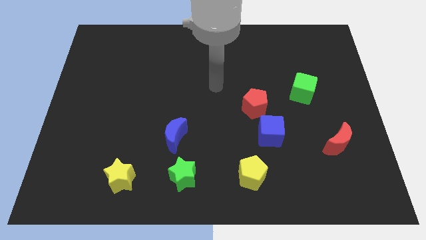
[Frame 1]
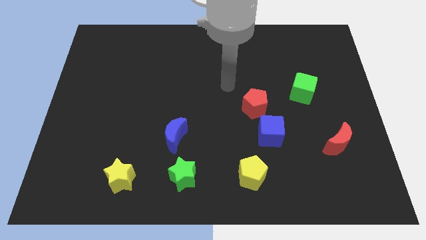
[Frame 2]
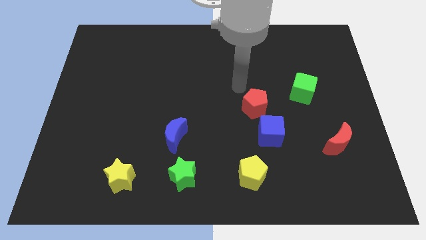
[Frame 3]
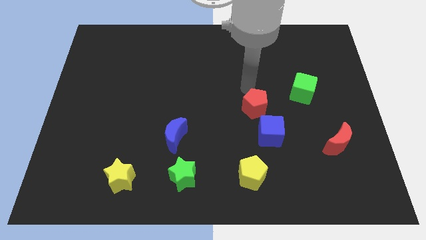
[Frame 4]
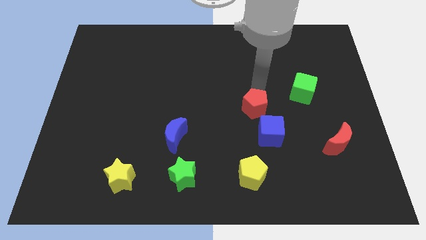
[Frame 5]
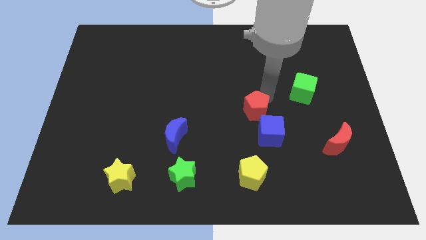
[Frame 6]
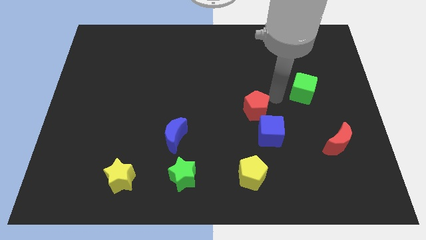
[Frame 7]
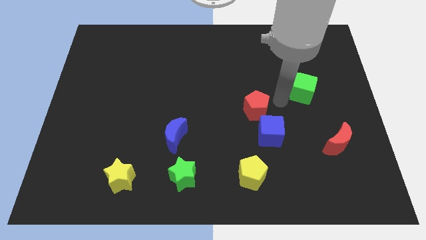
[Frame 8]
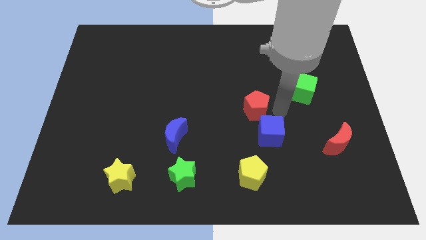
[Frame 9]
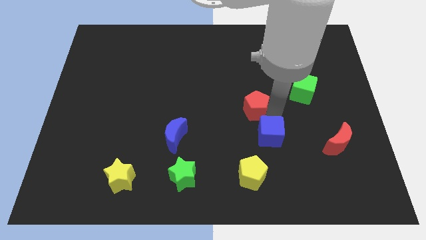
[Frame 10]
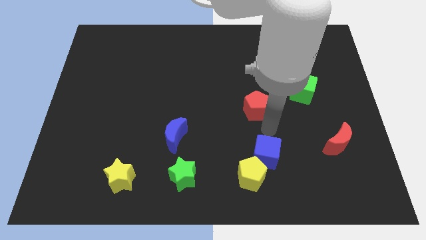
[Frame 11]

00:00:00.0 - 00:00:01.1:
move the red pentagon away from the blue cube

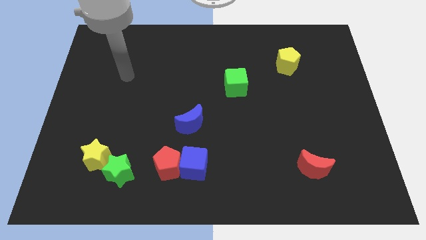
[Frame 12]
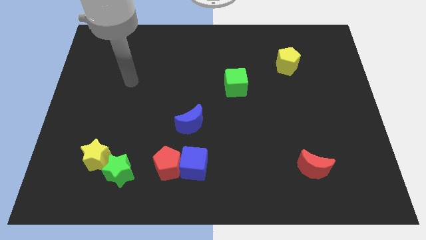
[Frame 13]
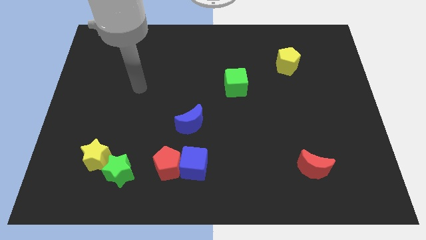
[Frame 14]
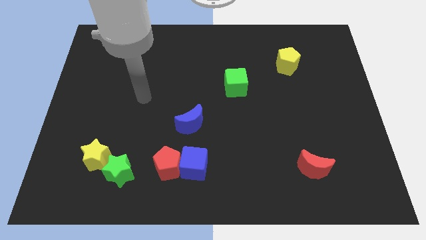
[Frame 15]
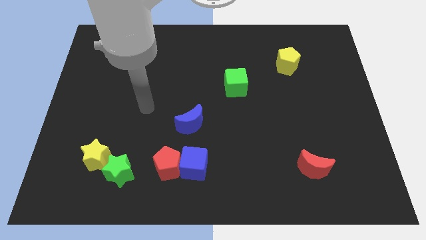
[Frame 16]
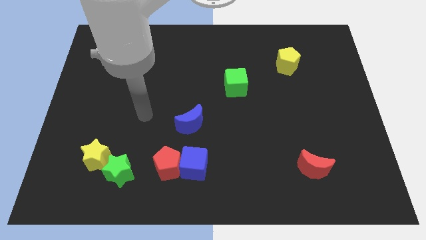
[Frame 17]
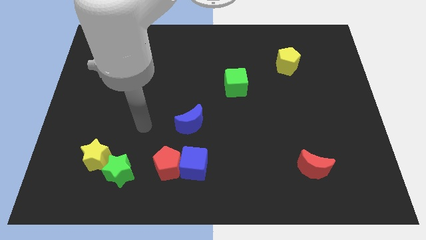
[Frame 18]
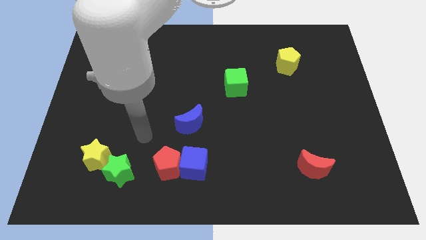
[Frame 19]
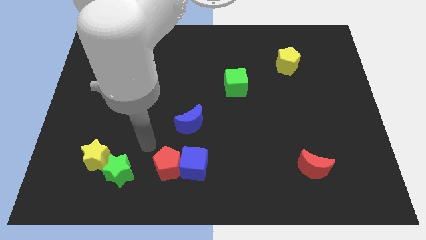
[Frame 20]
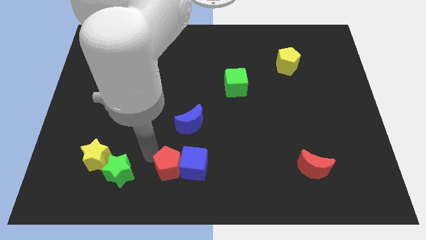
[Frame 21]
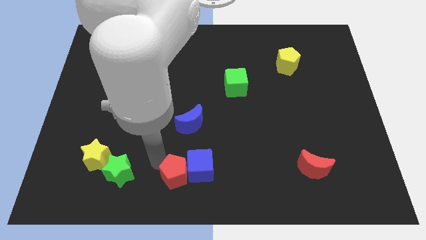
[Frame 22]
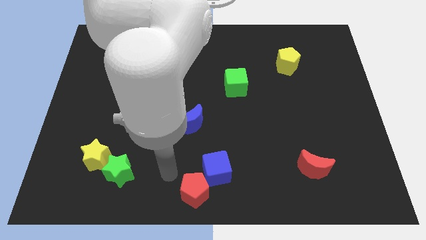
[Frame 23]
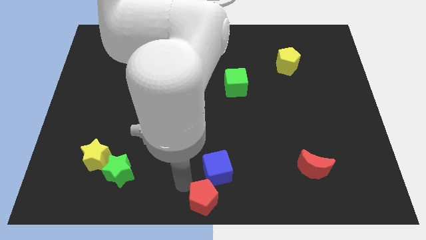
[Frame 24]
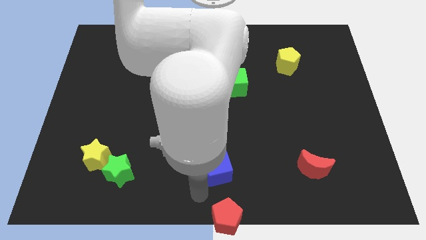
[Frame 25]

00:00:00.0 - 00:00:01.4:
pull the blue cube apart from the red pentagon

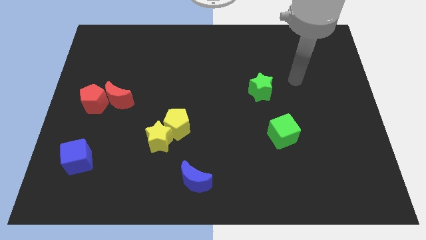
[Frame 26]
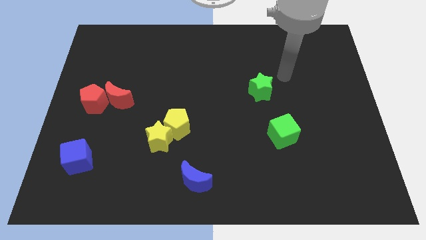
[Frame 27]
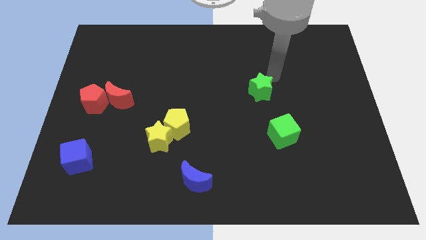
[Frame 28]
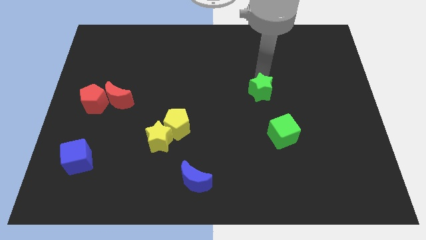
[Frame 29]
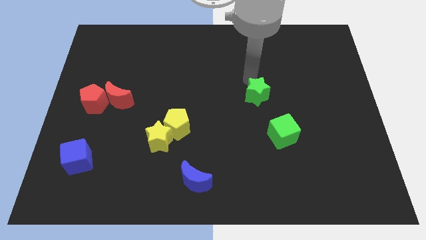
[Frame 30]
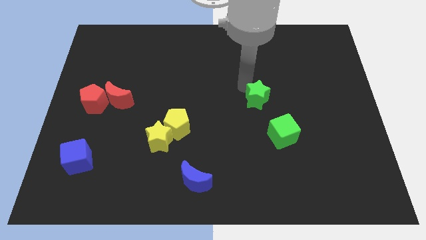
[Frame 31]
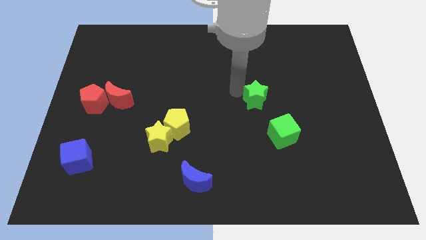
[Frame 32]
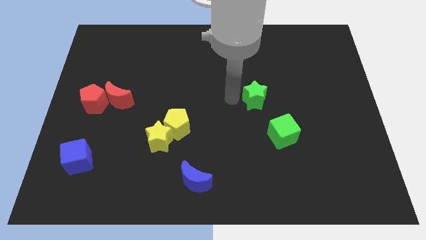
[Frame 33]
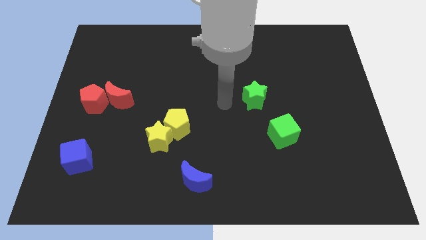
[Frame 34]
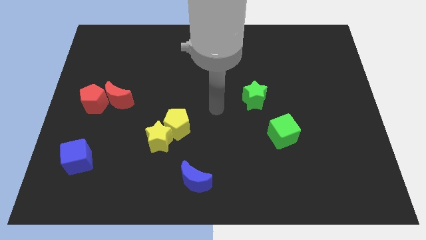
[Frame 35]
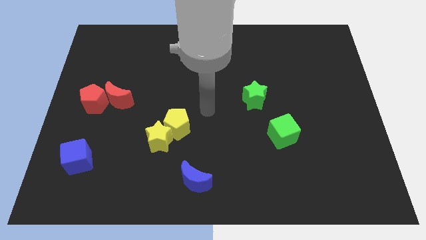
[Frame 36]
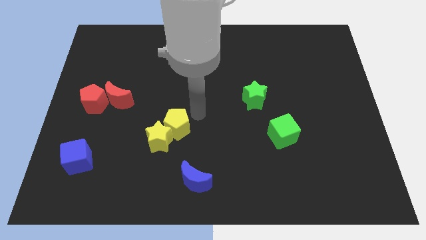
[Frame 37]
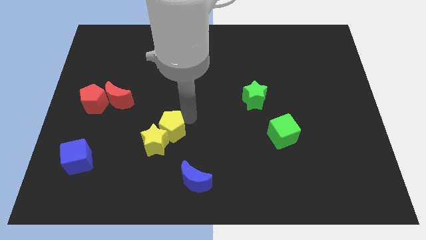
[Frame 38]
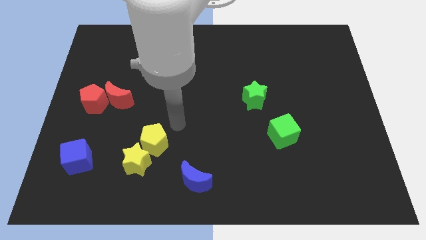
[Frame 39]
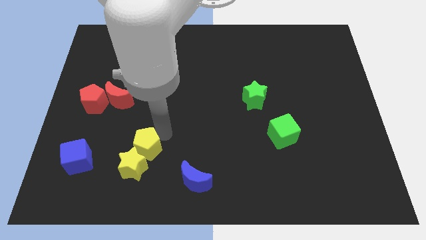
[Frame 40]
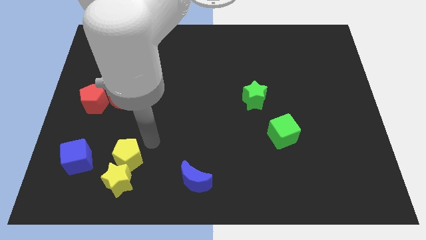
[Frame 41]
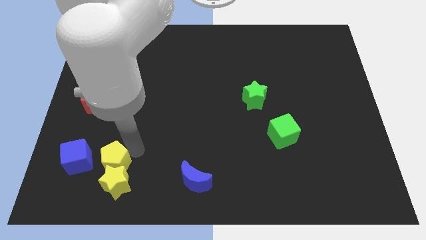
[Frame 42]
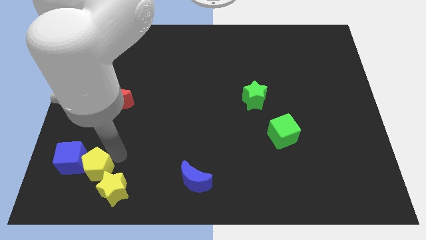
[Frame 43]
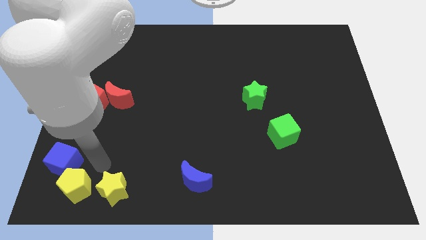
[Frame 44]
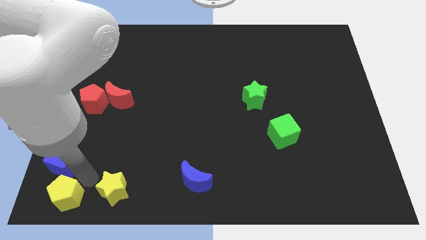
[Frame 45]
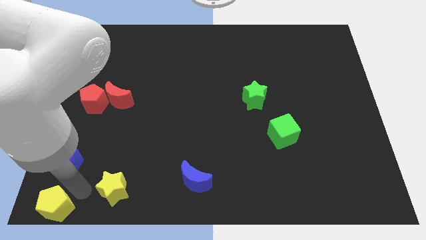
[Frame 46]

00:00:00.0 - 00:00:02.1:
separate the yellow star from the yellow pentagon

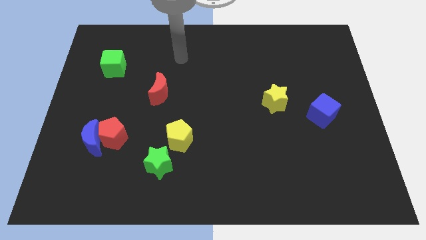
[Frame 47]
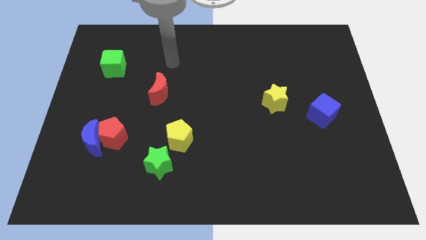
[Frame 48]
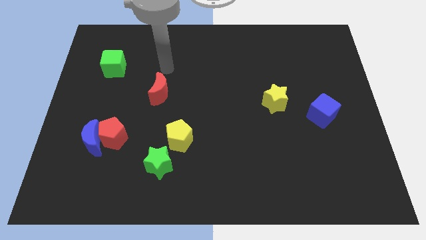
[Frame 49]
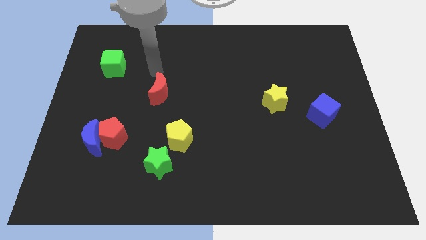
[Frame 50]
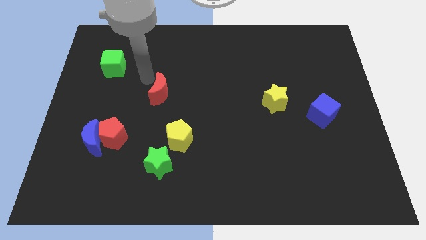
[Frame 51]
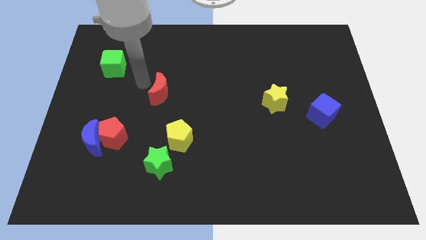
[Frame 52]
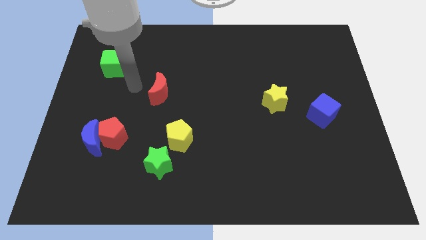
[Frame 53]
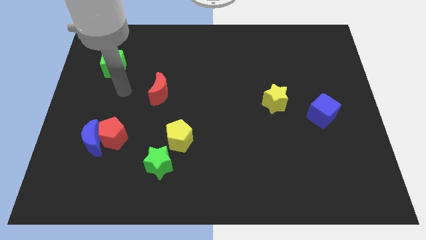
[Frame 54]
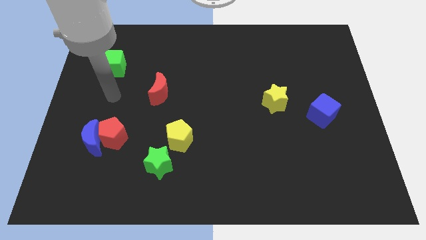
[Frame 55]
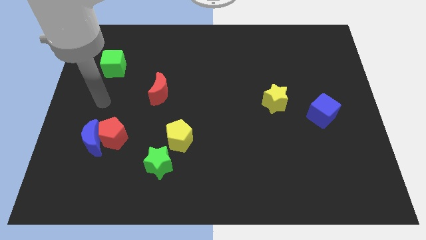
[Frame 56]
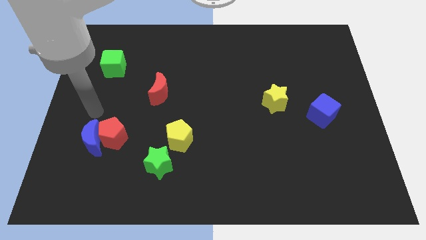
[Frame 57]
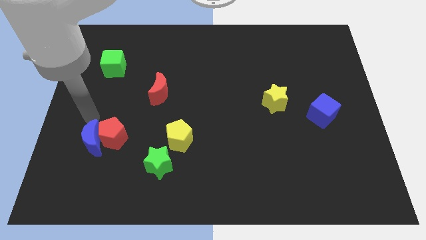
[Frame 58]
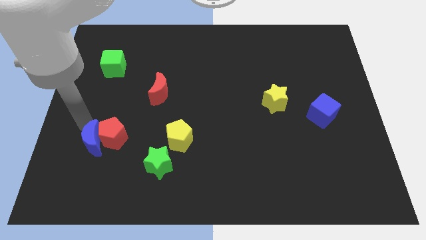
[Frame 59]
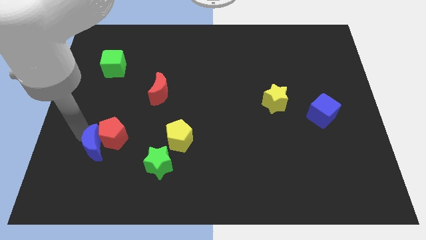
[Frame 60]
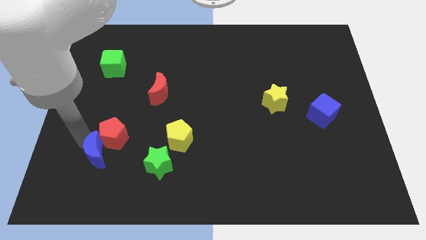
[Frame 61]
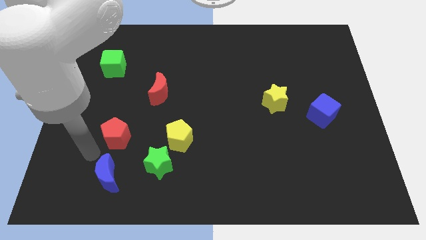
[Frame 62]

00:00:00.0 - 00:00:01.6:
separate the red pentagon from the blue moon

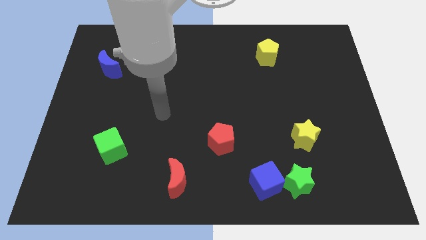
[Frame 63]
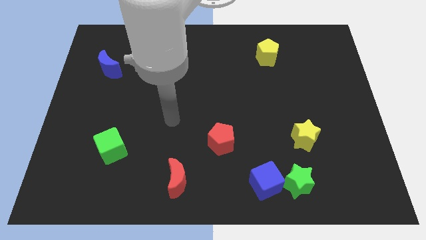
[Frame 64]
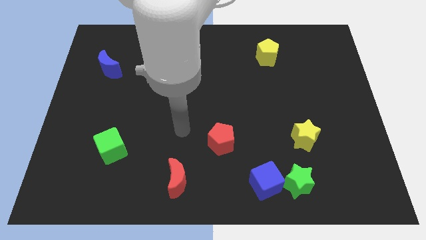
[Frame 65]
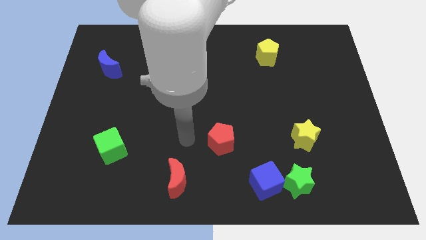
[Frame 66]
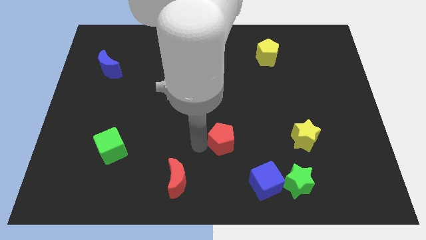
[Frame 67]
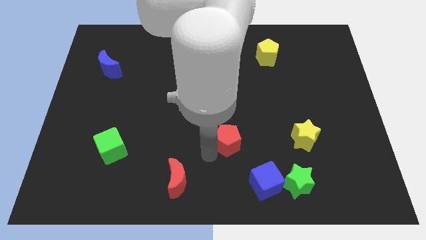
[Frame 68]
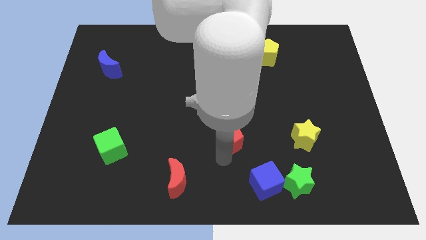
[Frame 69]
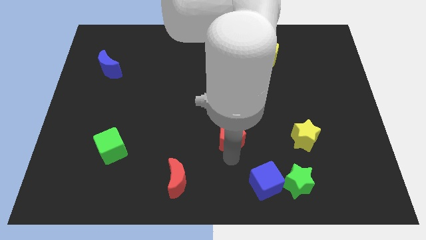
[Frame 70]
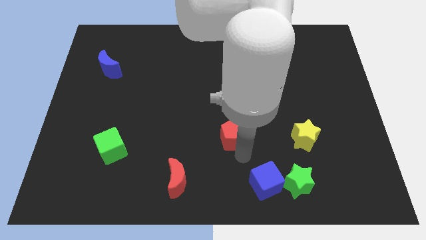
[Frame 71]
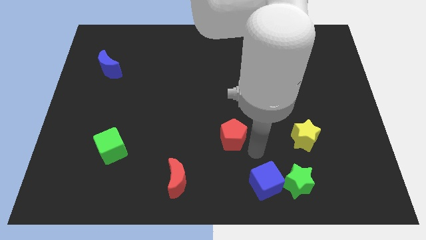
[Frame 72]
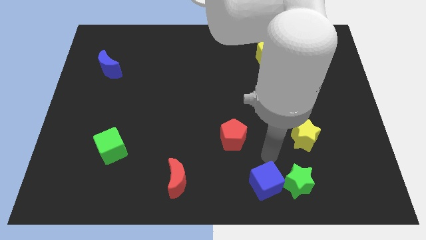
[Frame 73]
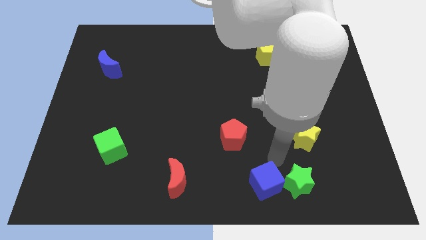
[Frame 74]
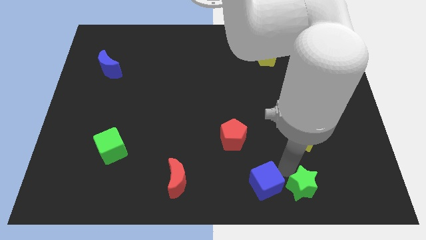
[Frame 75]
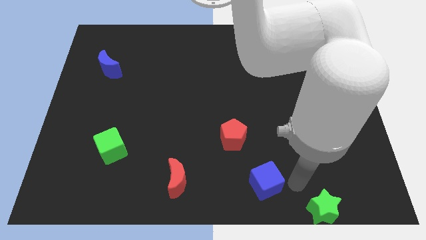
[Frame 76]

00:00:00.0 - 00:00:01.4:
move the blue cube away from the green star

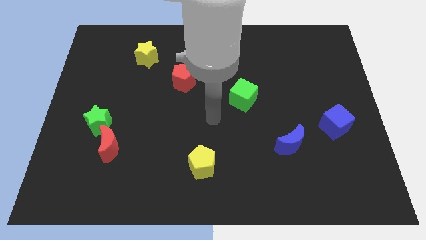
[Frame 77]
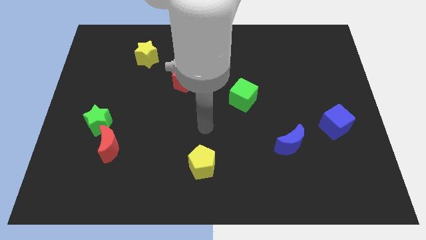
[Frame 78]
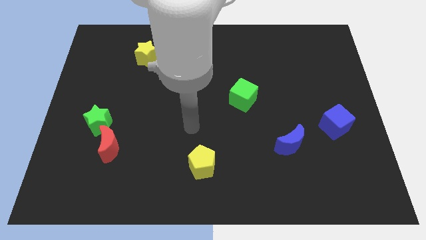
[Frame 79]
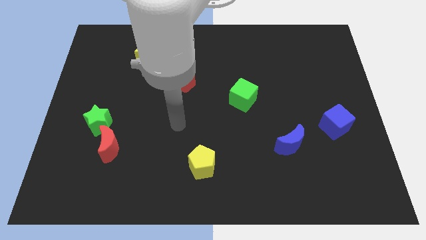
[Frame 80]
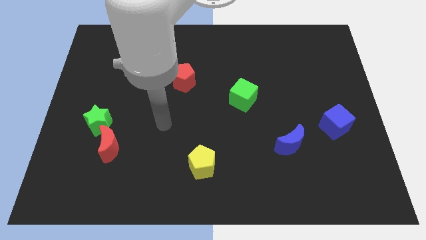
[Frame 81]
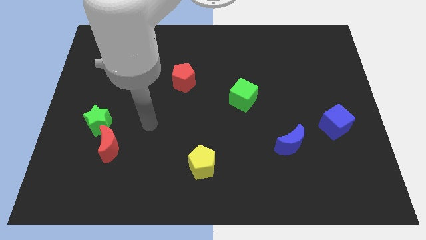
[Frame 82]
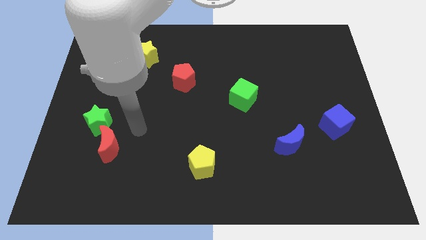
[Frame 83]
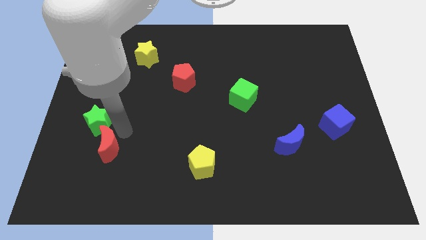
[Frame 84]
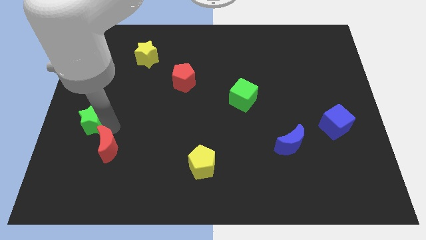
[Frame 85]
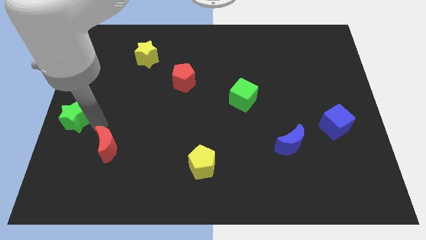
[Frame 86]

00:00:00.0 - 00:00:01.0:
pull the red moon apart from the green star

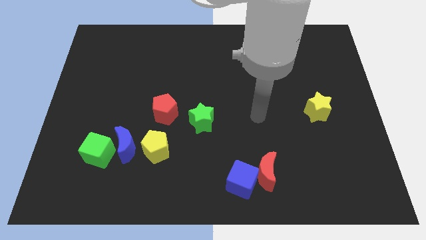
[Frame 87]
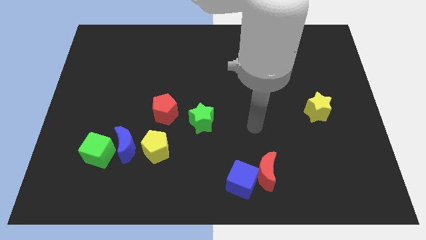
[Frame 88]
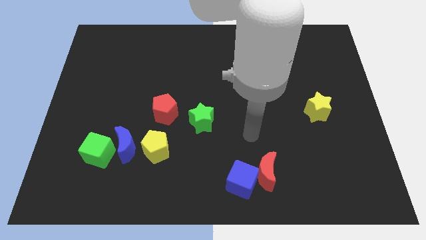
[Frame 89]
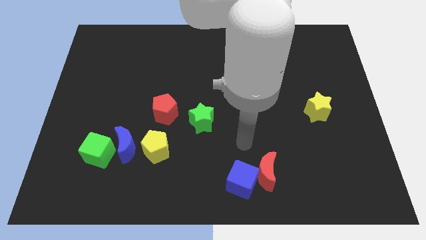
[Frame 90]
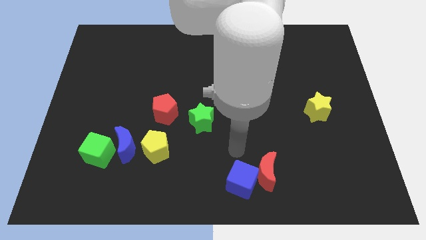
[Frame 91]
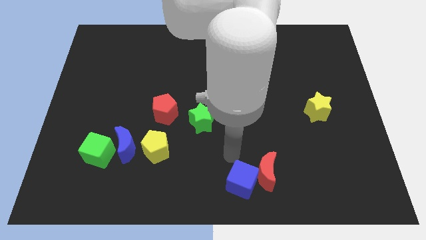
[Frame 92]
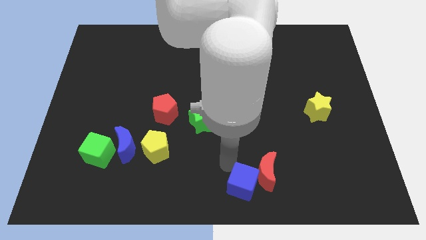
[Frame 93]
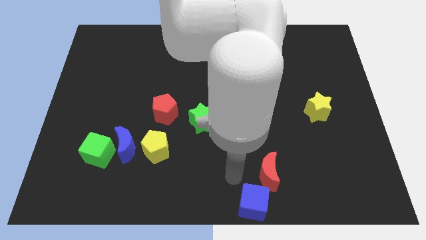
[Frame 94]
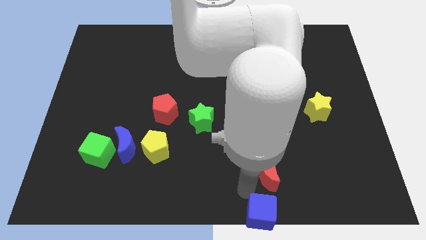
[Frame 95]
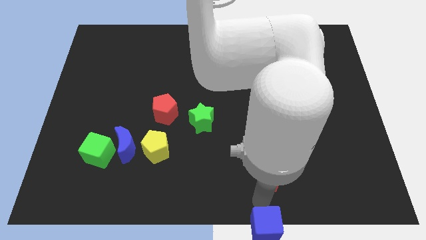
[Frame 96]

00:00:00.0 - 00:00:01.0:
move the red moon away from the blue cube
